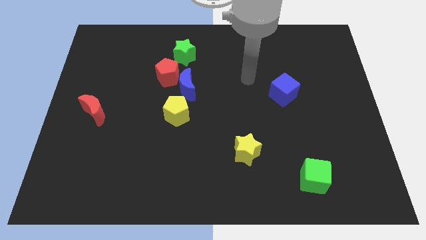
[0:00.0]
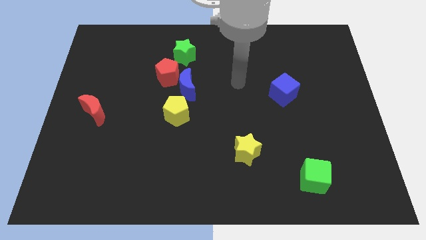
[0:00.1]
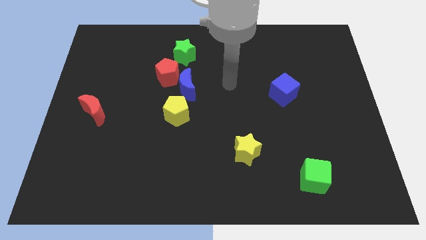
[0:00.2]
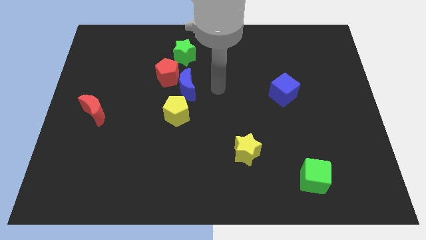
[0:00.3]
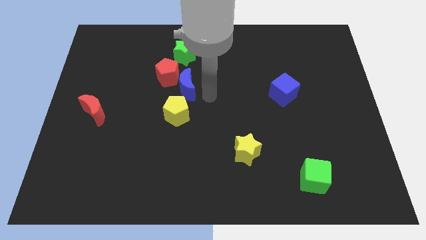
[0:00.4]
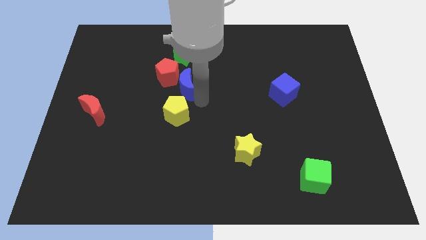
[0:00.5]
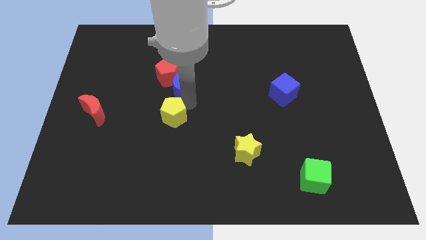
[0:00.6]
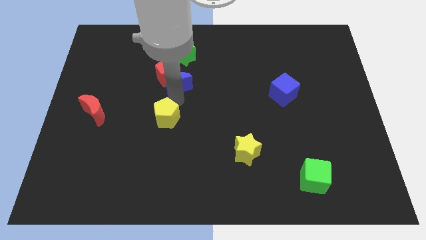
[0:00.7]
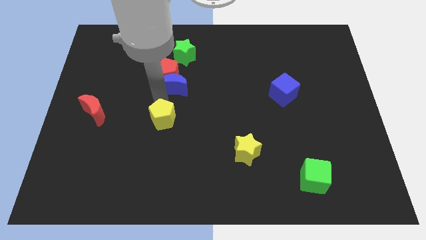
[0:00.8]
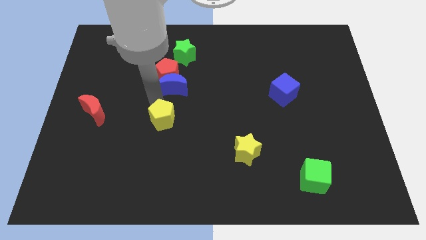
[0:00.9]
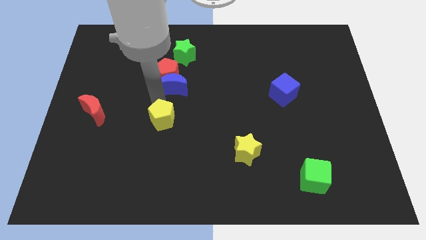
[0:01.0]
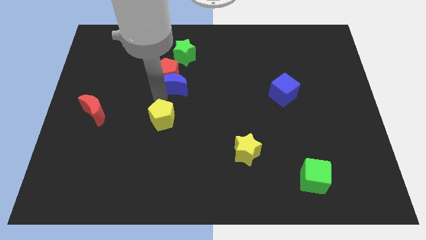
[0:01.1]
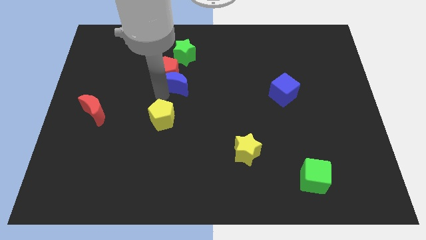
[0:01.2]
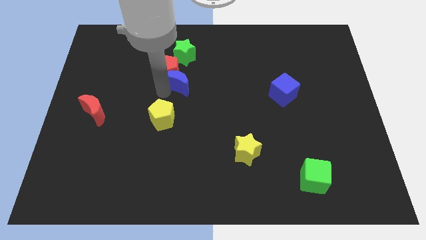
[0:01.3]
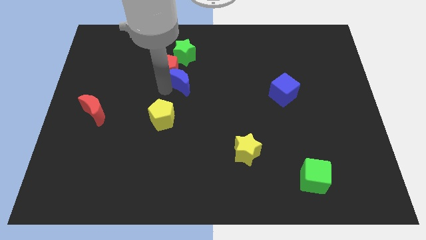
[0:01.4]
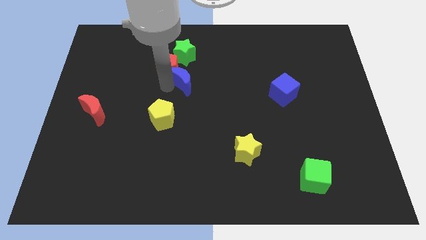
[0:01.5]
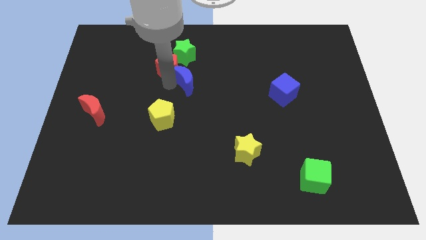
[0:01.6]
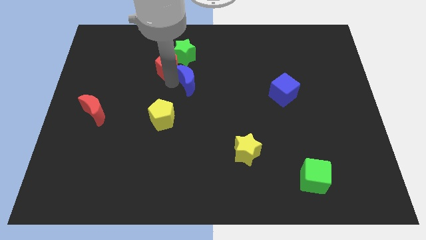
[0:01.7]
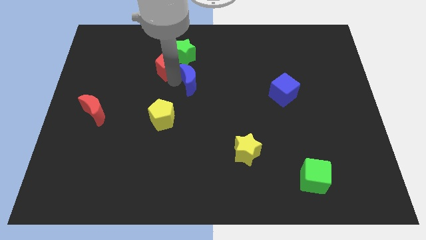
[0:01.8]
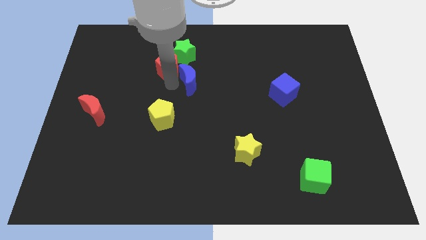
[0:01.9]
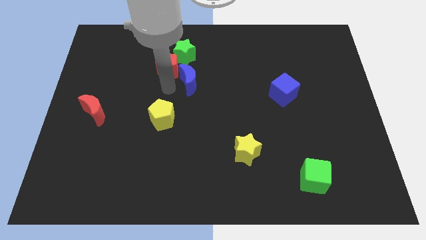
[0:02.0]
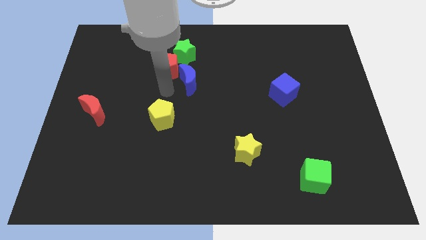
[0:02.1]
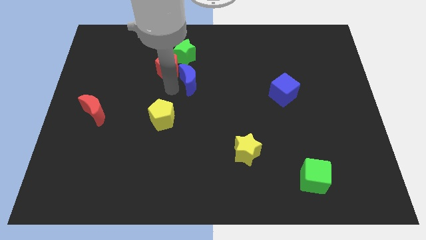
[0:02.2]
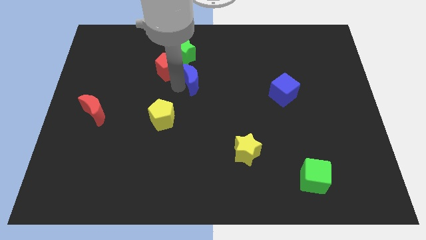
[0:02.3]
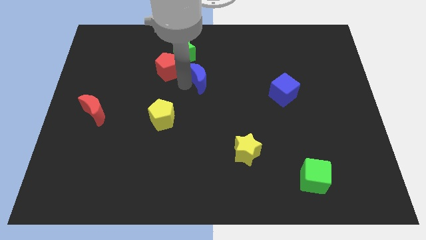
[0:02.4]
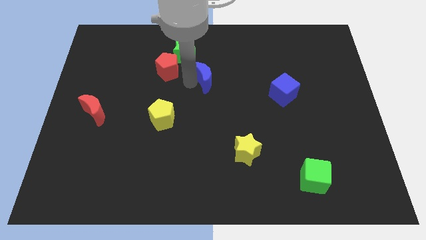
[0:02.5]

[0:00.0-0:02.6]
move the blue moon away from the red pentagon and yellow pentagon

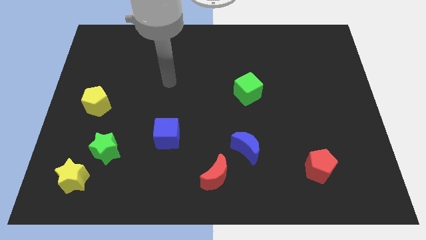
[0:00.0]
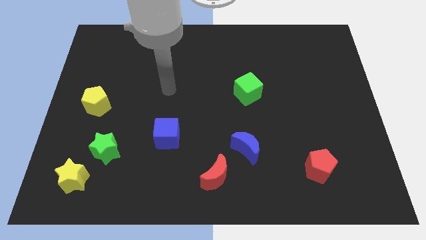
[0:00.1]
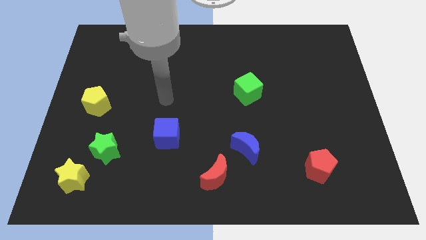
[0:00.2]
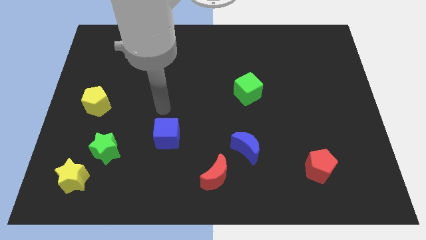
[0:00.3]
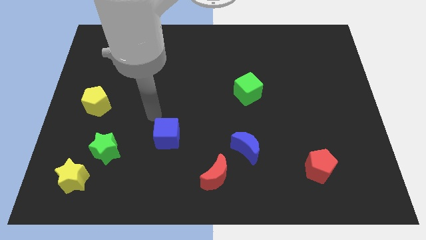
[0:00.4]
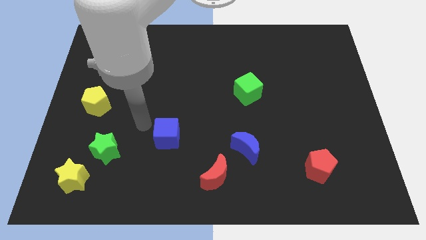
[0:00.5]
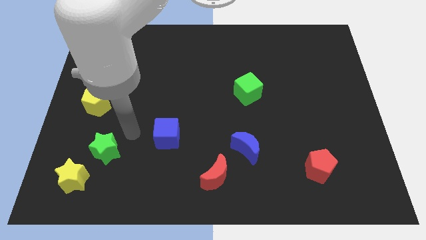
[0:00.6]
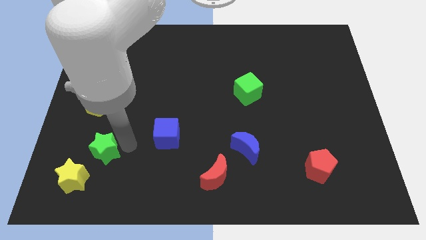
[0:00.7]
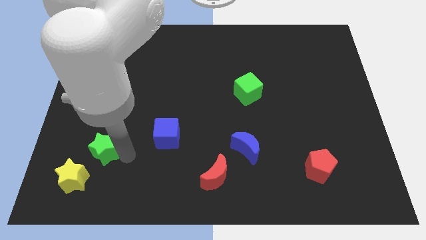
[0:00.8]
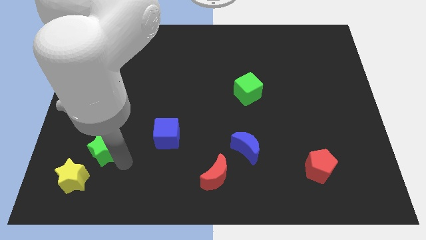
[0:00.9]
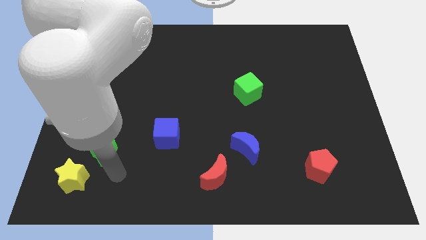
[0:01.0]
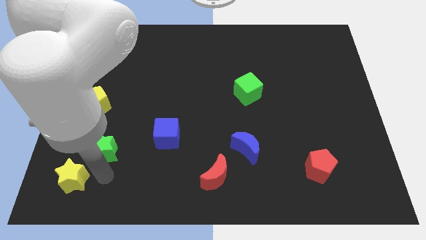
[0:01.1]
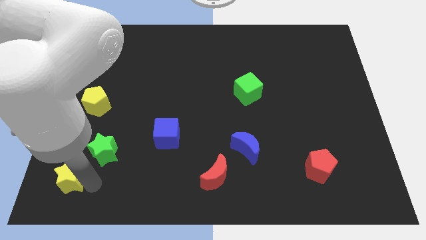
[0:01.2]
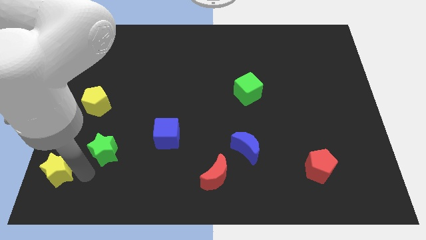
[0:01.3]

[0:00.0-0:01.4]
separate the green star from the yellow star

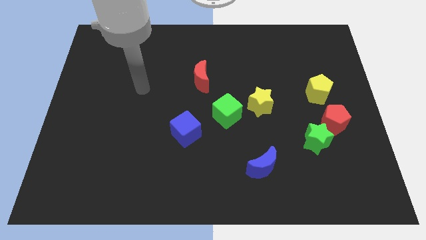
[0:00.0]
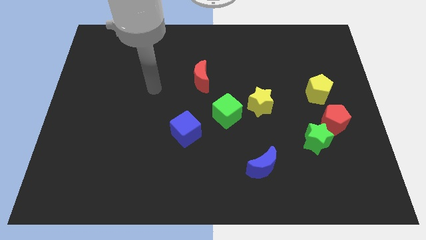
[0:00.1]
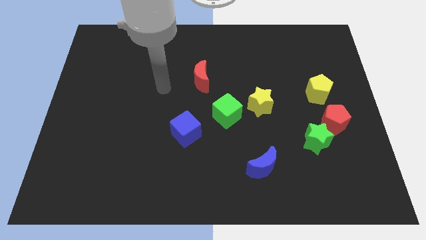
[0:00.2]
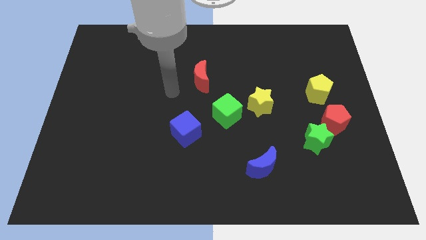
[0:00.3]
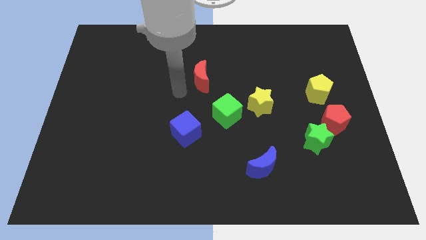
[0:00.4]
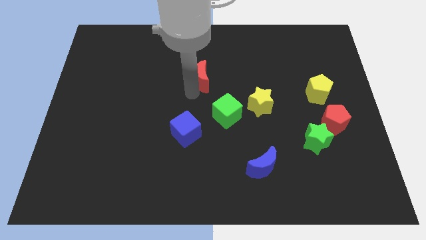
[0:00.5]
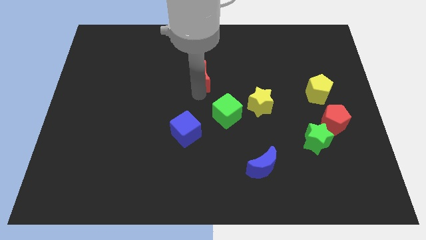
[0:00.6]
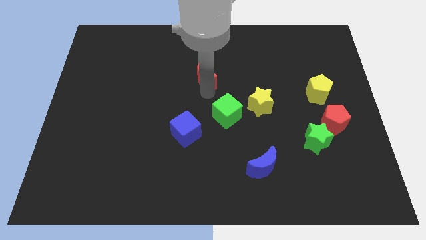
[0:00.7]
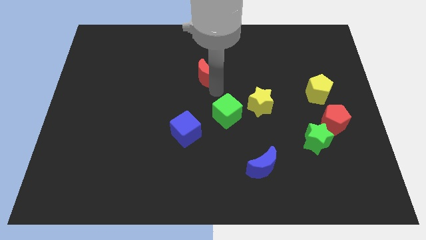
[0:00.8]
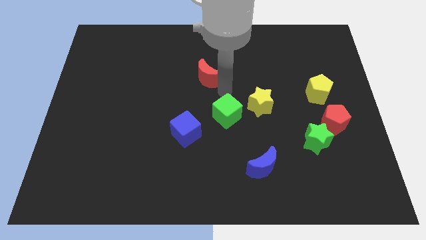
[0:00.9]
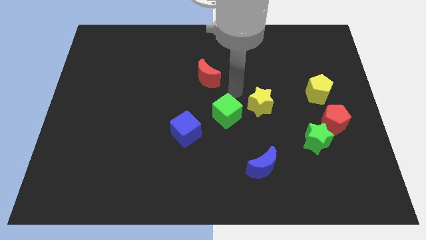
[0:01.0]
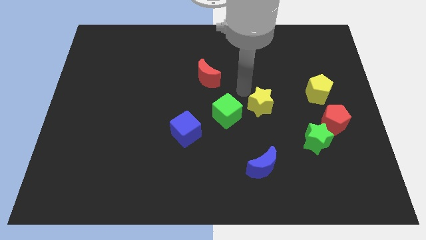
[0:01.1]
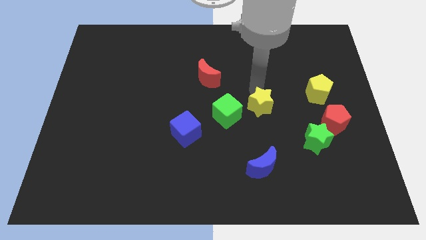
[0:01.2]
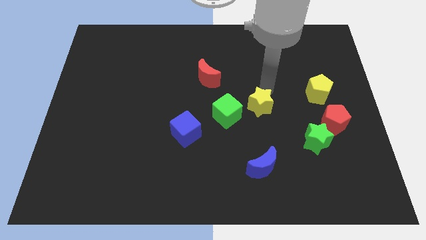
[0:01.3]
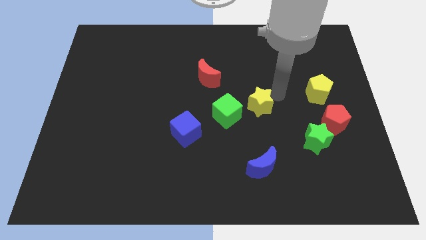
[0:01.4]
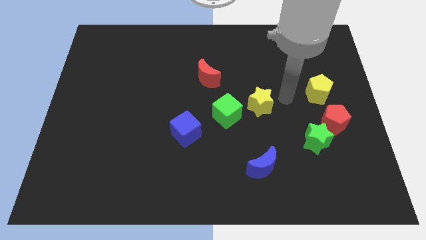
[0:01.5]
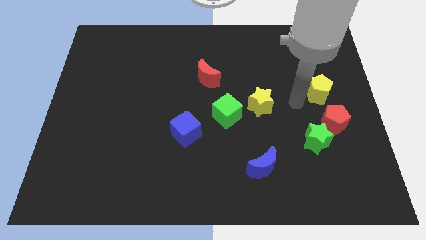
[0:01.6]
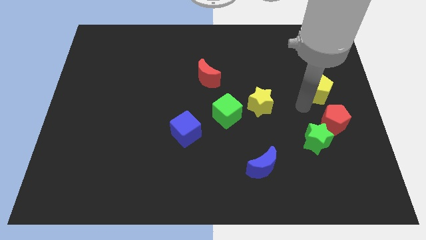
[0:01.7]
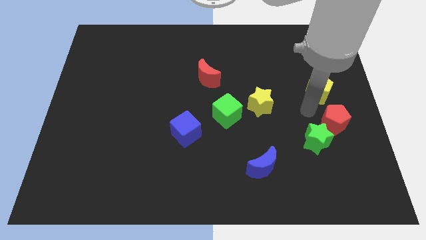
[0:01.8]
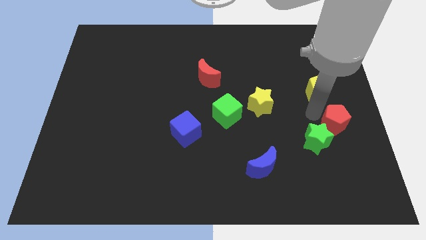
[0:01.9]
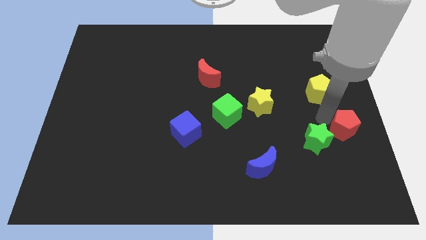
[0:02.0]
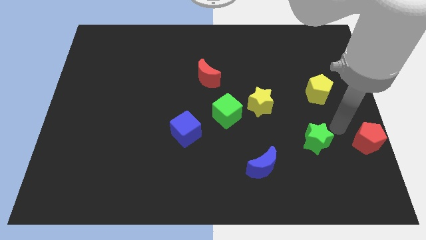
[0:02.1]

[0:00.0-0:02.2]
separate the green star from the red pentagon

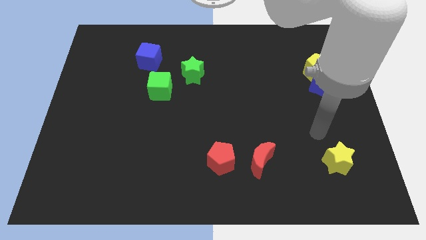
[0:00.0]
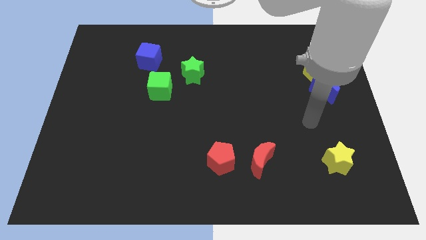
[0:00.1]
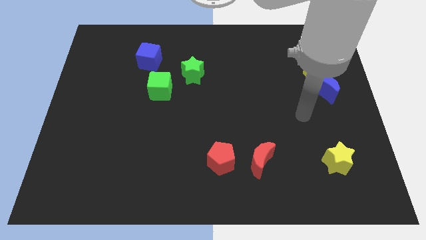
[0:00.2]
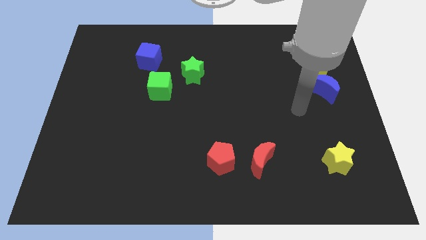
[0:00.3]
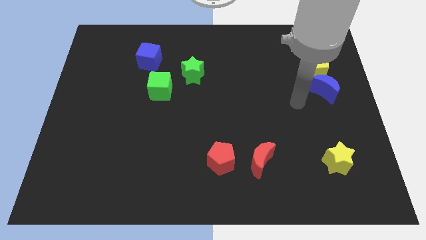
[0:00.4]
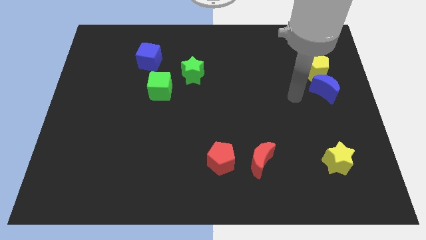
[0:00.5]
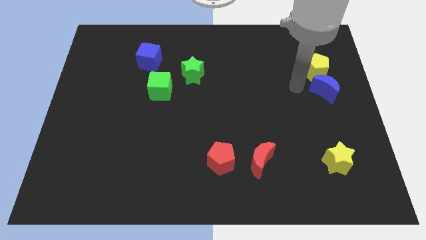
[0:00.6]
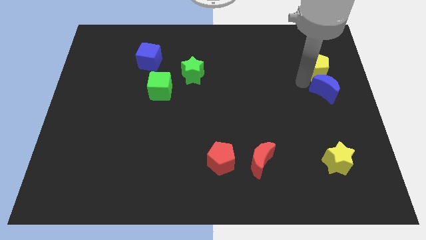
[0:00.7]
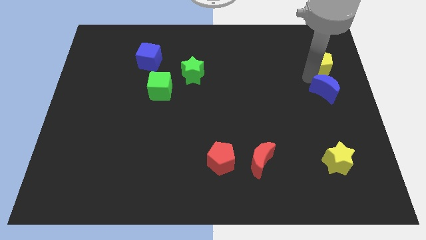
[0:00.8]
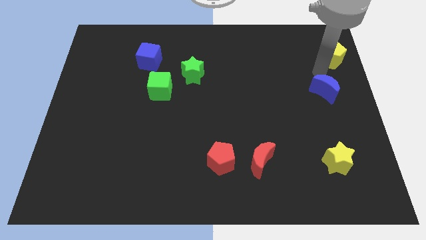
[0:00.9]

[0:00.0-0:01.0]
pull the blue moon apart from the yellow pentagon

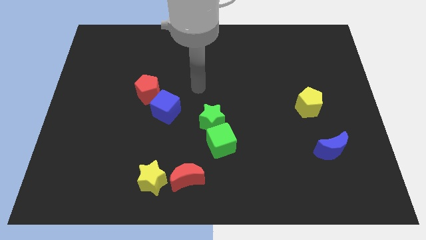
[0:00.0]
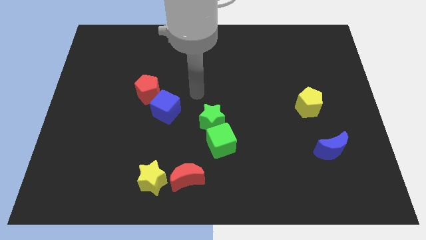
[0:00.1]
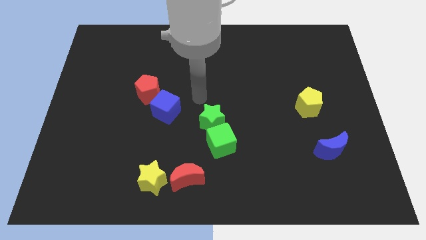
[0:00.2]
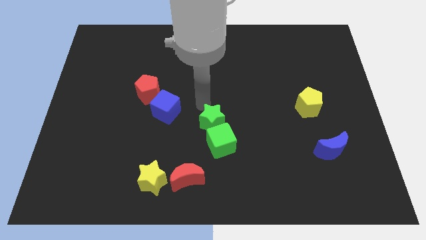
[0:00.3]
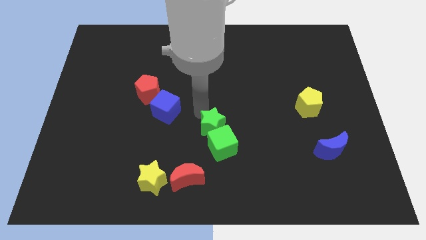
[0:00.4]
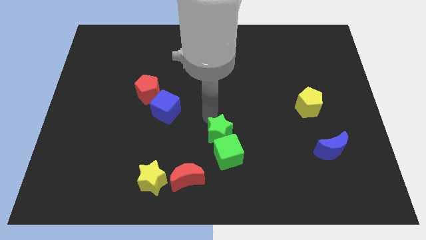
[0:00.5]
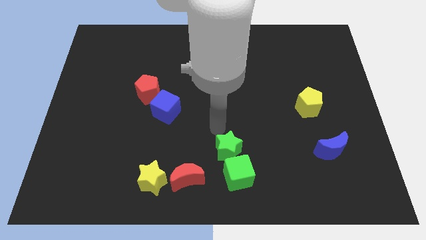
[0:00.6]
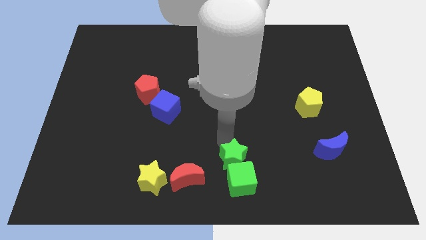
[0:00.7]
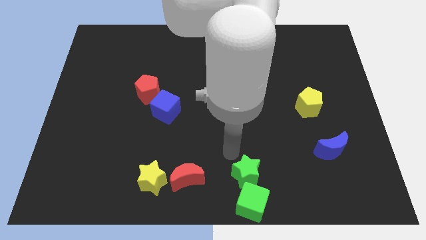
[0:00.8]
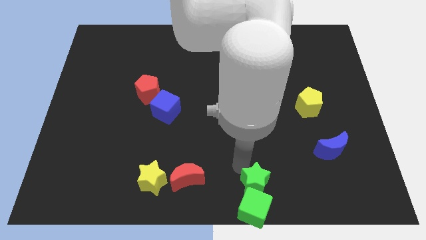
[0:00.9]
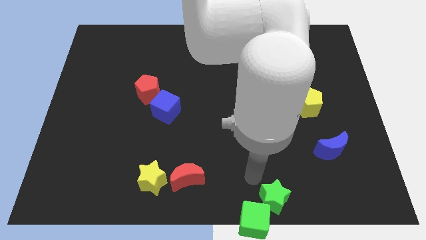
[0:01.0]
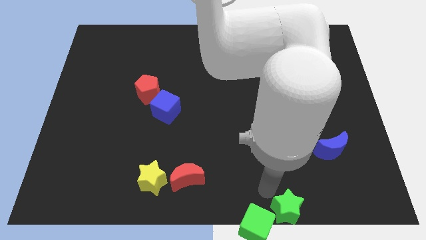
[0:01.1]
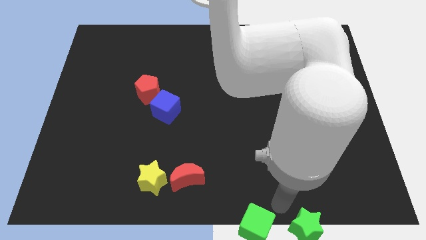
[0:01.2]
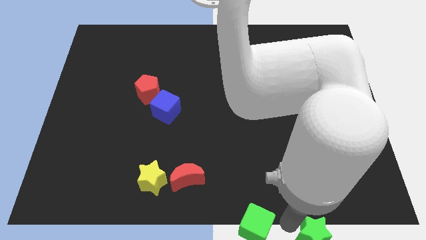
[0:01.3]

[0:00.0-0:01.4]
separate the green cube from the green star

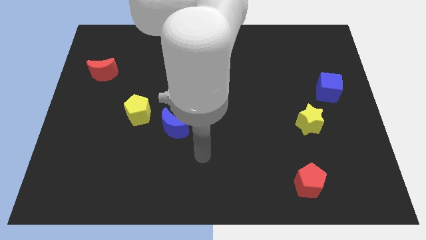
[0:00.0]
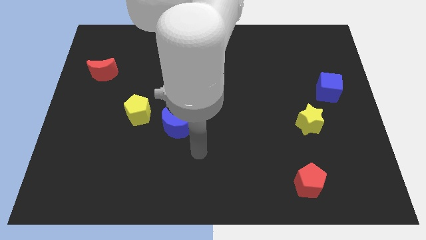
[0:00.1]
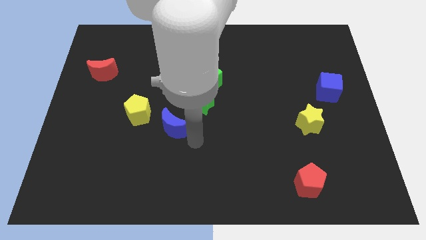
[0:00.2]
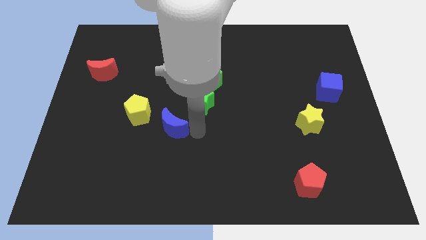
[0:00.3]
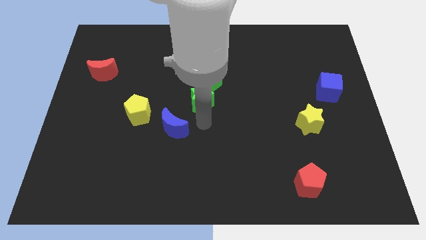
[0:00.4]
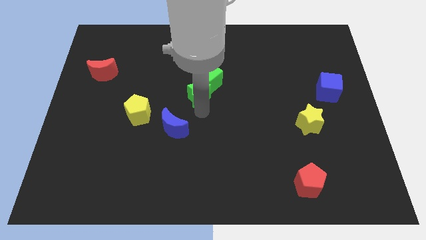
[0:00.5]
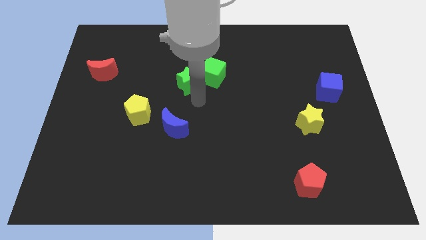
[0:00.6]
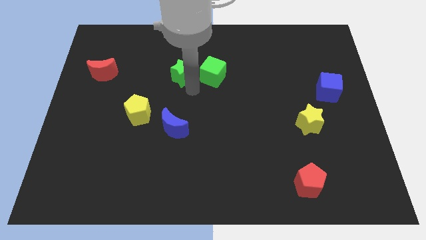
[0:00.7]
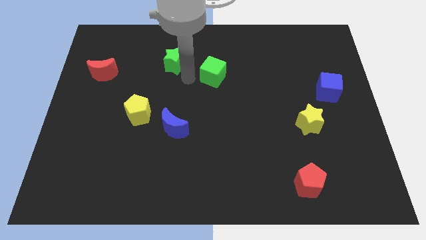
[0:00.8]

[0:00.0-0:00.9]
move the green cube away from the green star
